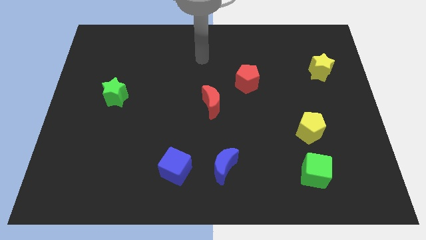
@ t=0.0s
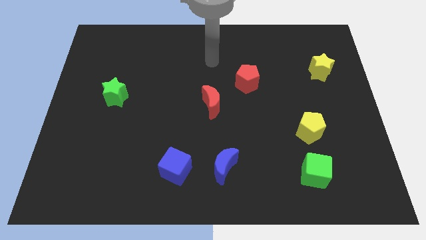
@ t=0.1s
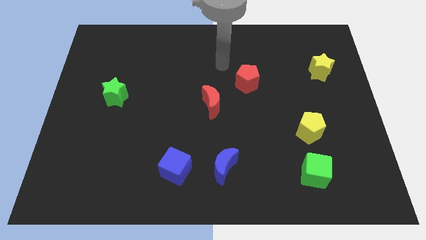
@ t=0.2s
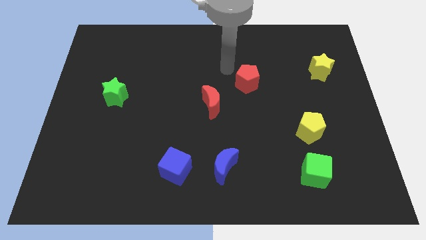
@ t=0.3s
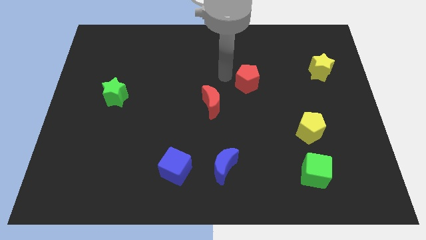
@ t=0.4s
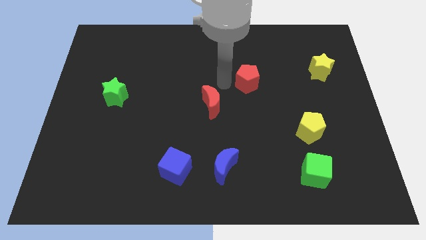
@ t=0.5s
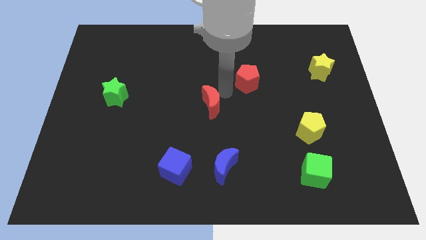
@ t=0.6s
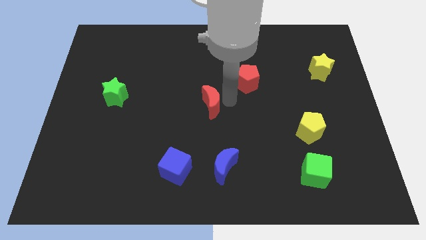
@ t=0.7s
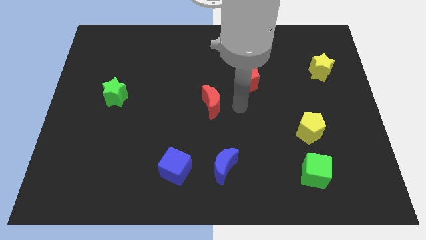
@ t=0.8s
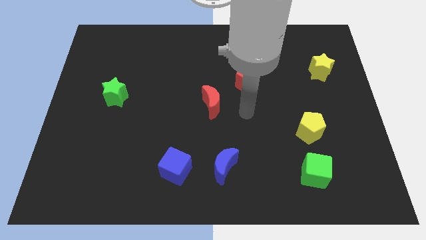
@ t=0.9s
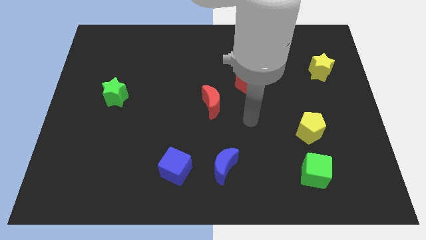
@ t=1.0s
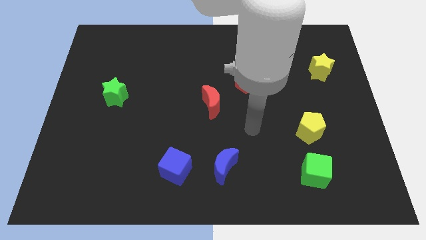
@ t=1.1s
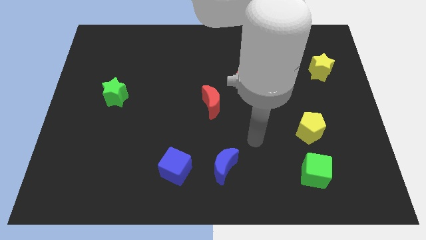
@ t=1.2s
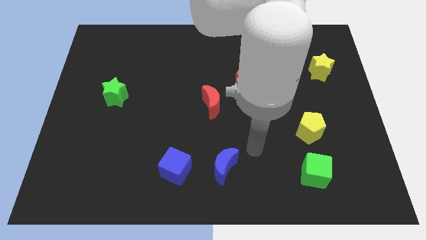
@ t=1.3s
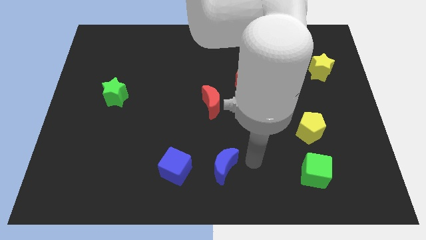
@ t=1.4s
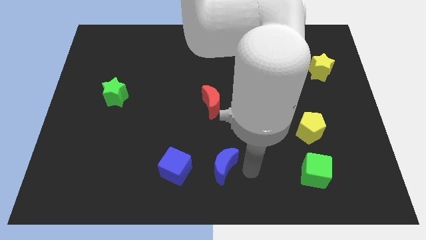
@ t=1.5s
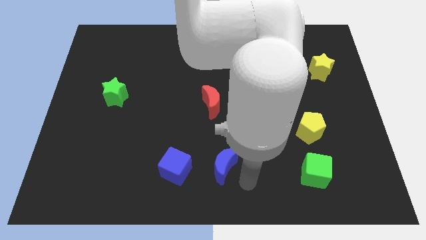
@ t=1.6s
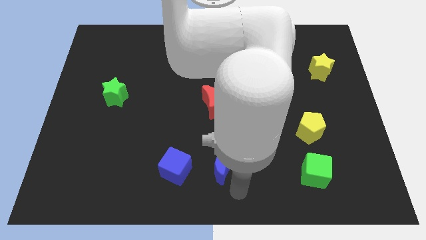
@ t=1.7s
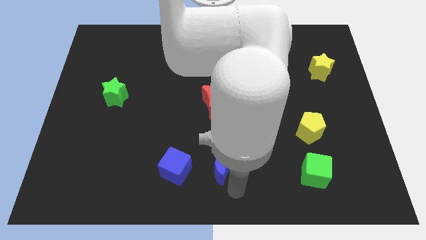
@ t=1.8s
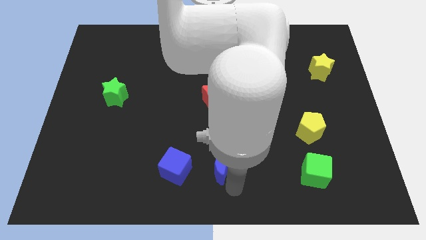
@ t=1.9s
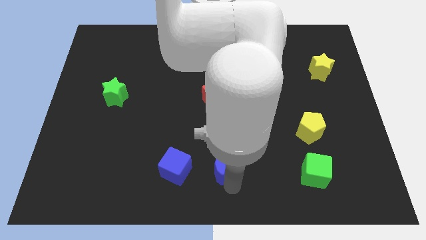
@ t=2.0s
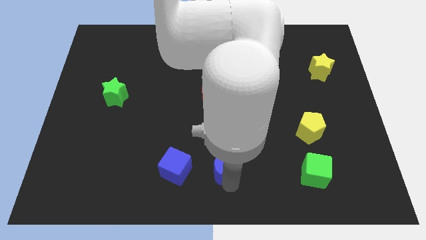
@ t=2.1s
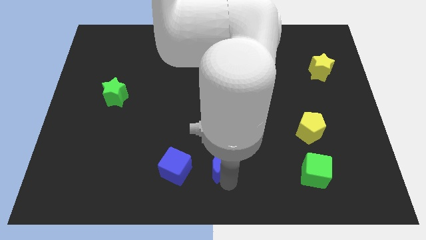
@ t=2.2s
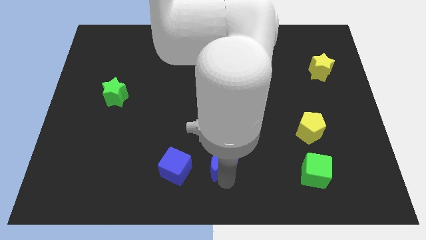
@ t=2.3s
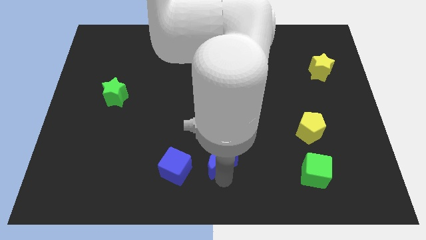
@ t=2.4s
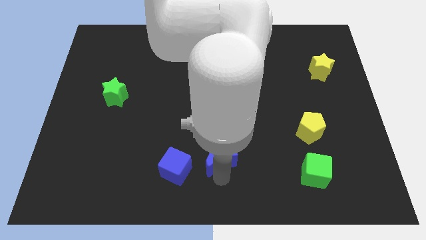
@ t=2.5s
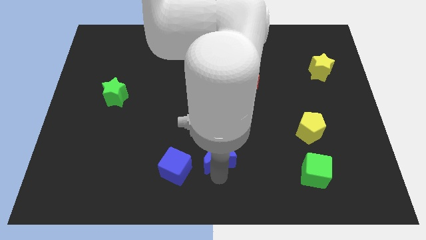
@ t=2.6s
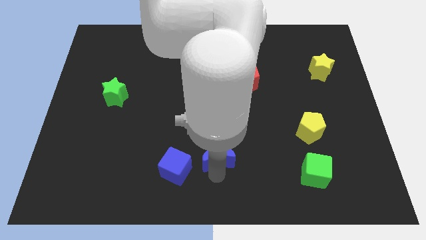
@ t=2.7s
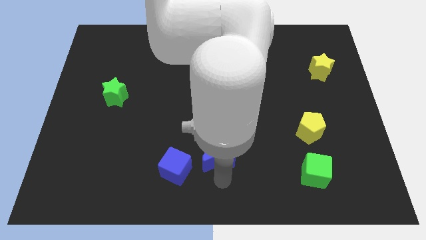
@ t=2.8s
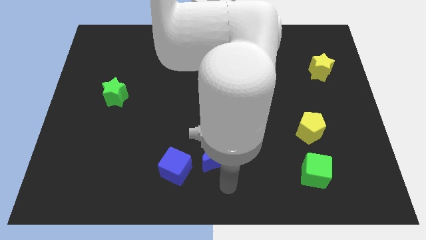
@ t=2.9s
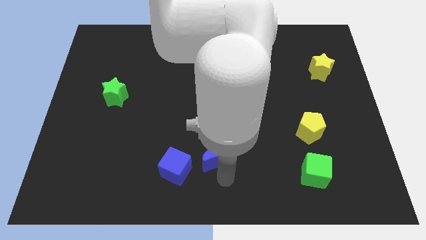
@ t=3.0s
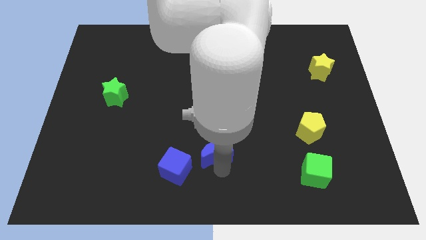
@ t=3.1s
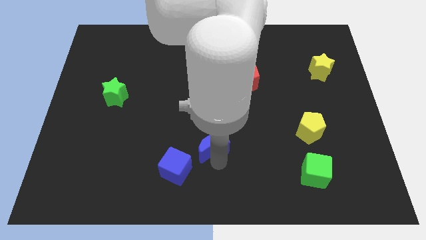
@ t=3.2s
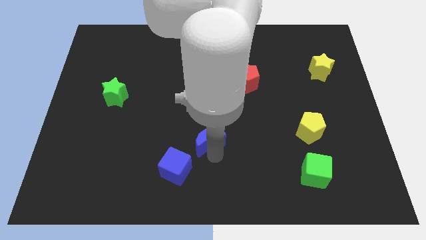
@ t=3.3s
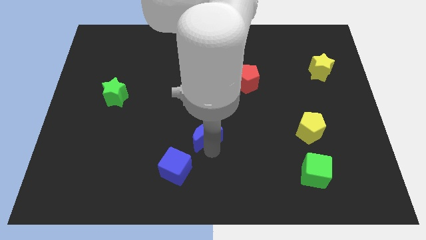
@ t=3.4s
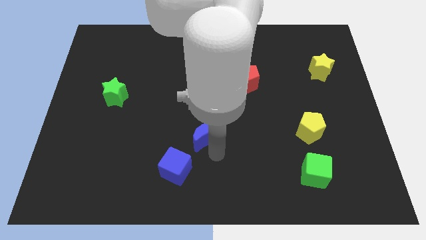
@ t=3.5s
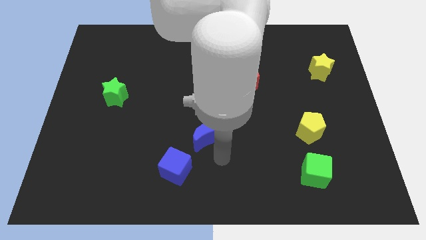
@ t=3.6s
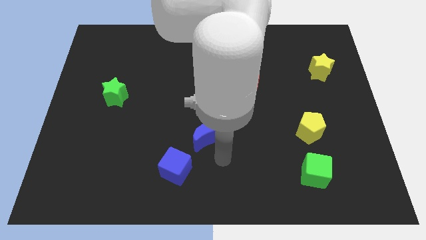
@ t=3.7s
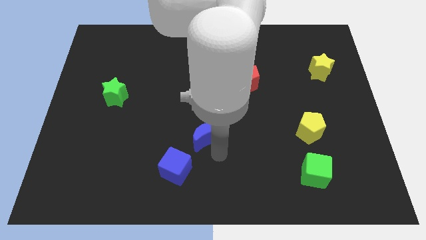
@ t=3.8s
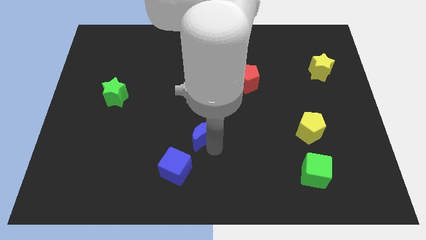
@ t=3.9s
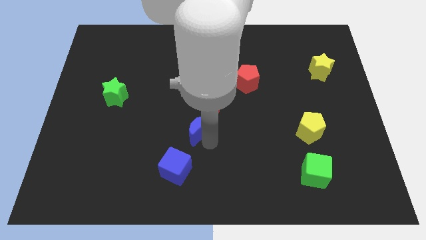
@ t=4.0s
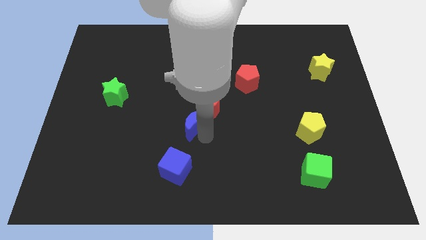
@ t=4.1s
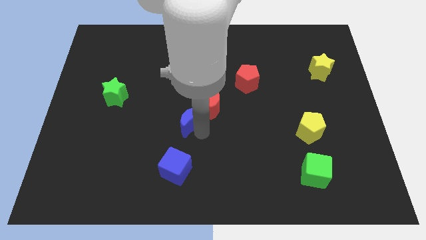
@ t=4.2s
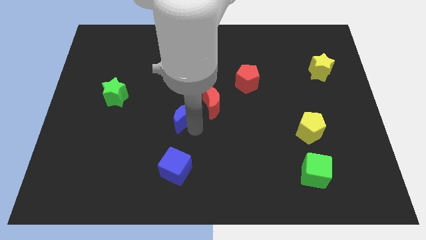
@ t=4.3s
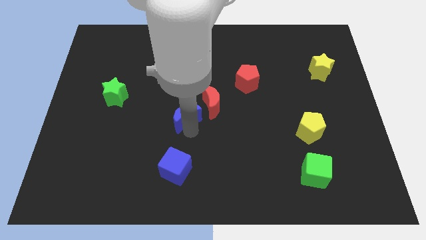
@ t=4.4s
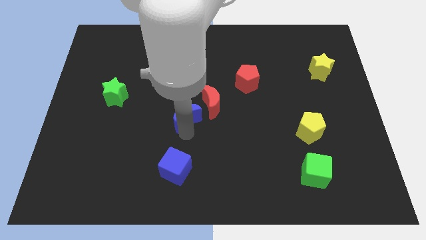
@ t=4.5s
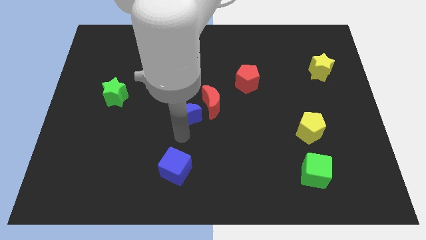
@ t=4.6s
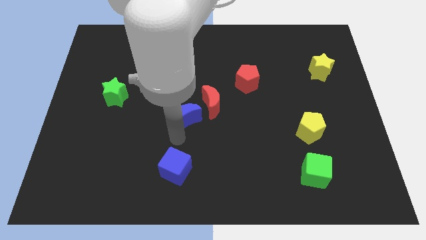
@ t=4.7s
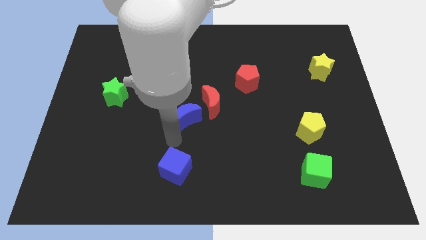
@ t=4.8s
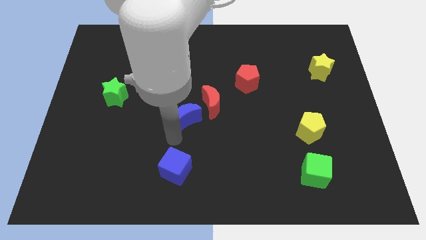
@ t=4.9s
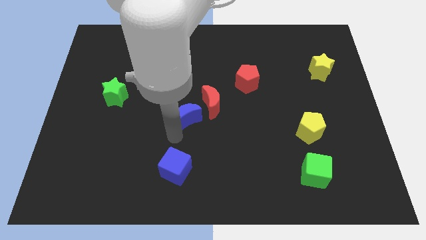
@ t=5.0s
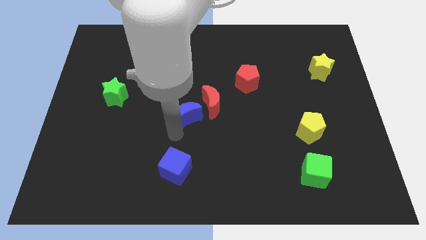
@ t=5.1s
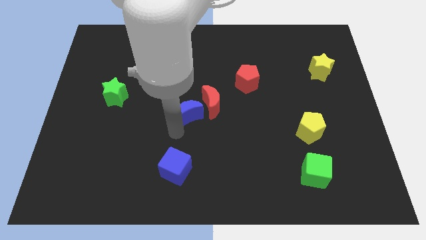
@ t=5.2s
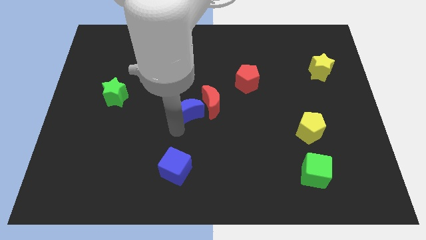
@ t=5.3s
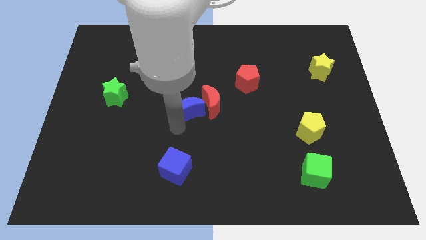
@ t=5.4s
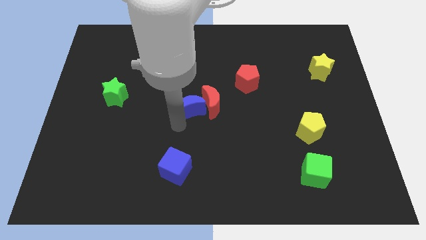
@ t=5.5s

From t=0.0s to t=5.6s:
push the blue moon to the top left of the red moon

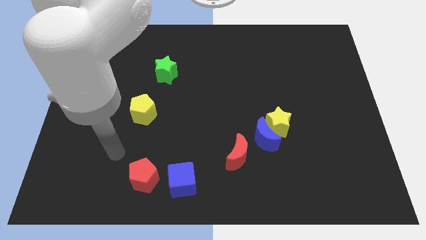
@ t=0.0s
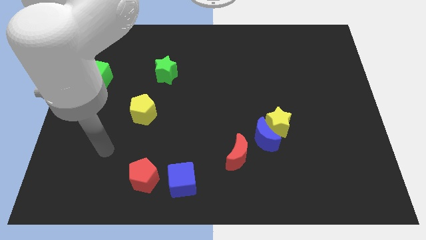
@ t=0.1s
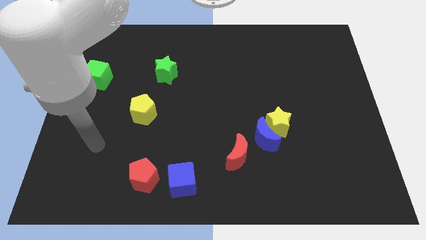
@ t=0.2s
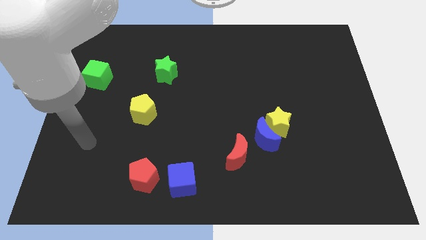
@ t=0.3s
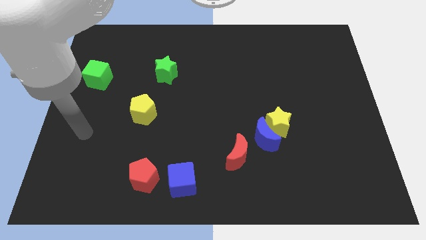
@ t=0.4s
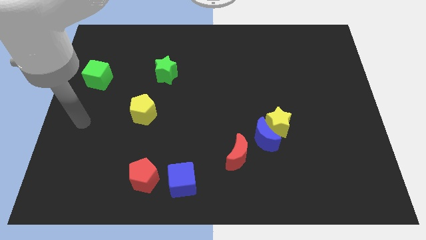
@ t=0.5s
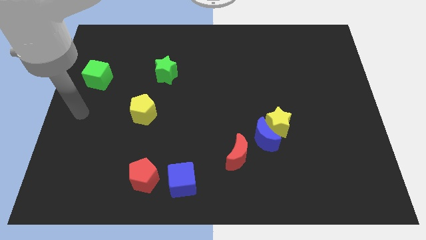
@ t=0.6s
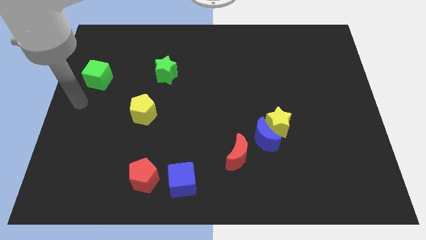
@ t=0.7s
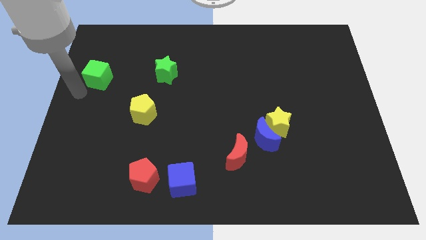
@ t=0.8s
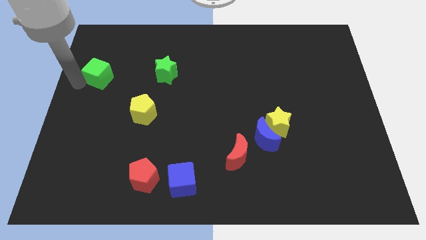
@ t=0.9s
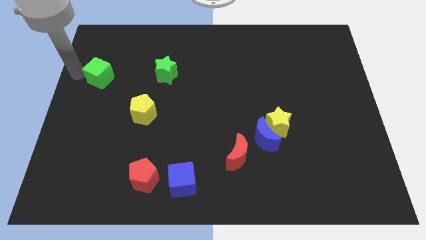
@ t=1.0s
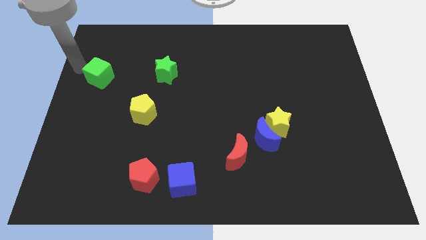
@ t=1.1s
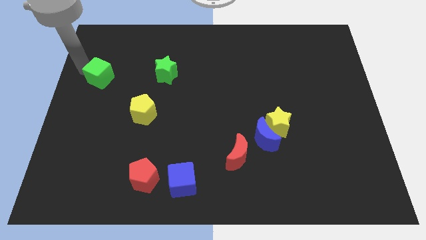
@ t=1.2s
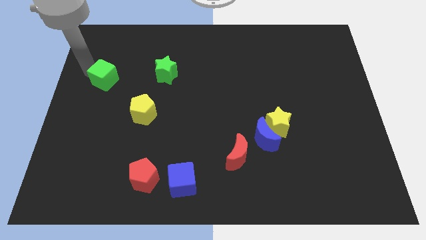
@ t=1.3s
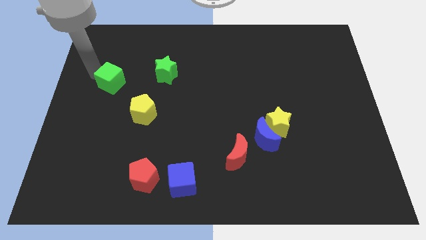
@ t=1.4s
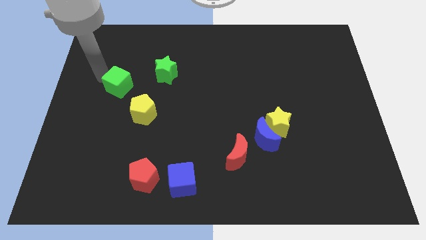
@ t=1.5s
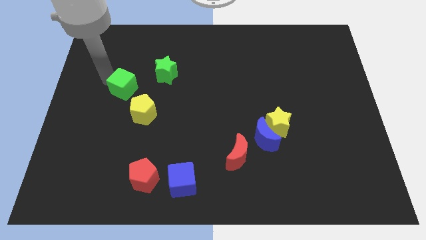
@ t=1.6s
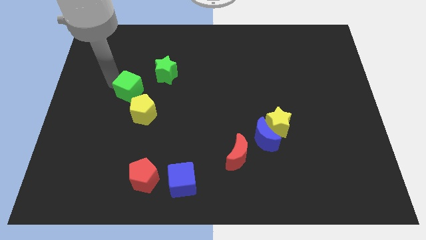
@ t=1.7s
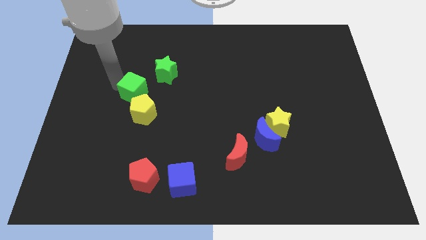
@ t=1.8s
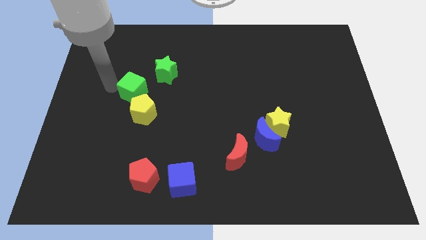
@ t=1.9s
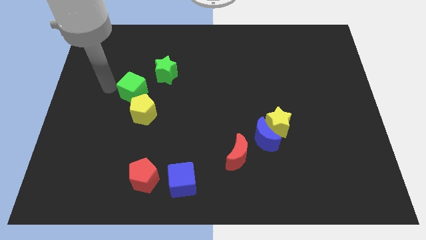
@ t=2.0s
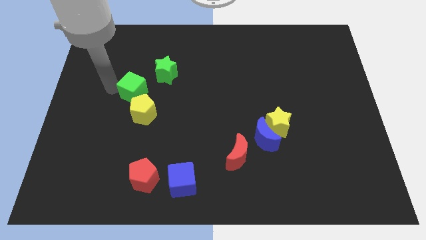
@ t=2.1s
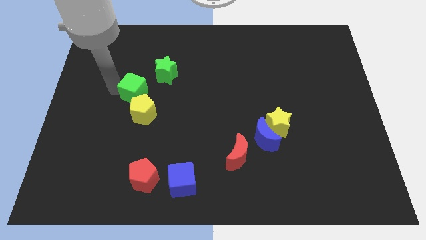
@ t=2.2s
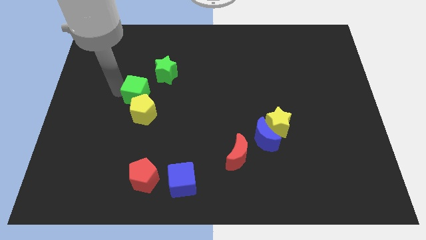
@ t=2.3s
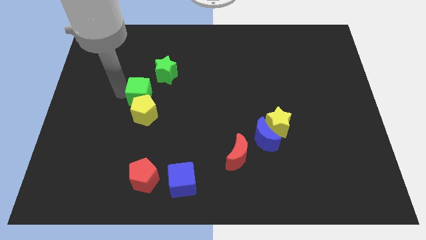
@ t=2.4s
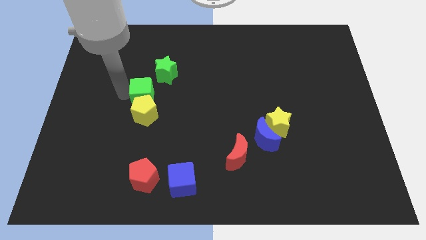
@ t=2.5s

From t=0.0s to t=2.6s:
put the green cube diagonally up and to the right of the yellow pentagon
